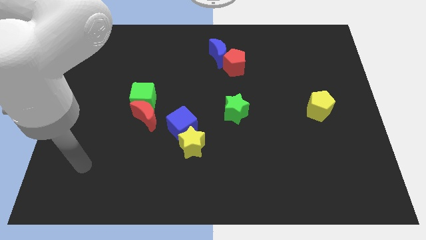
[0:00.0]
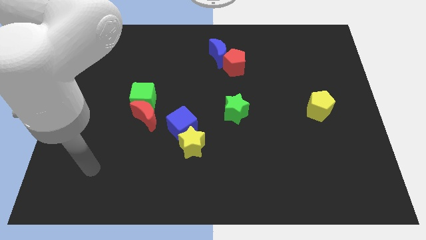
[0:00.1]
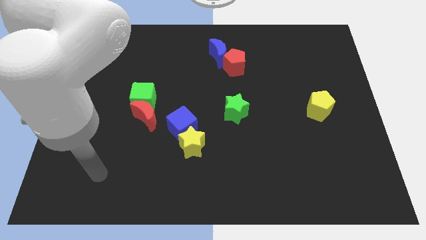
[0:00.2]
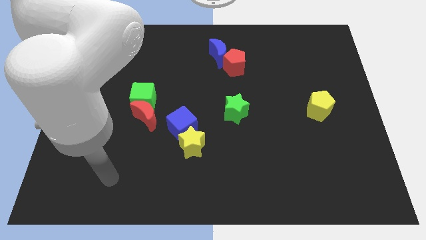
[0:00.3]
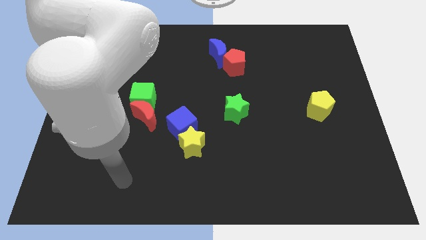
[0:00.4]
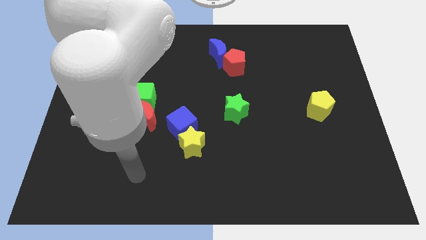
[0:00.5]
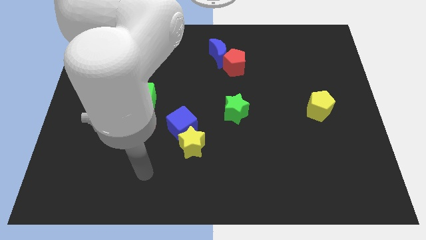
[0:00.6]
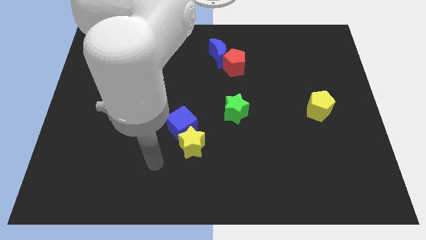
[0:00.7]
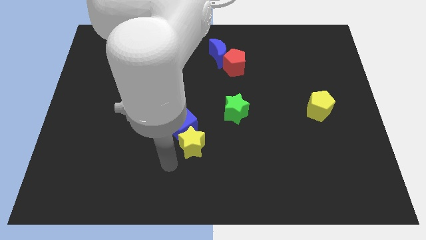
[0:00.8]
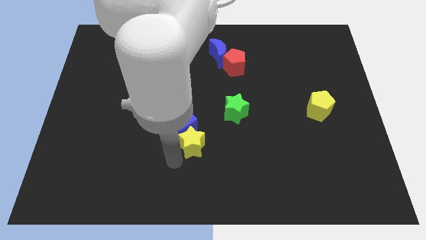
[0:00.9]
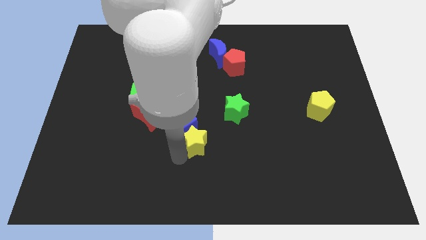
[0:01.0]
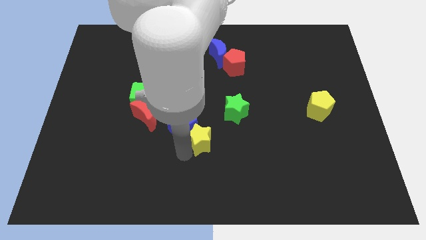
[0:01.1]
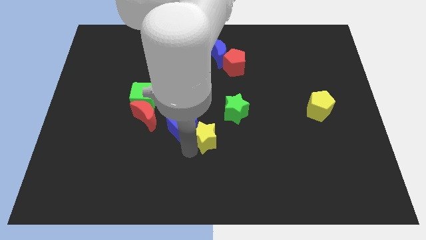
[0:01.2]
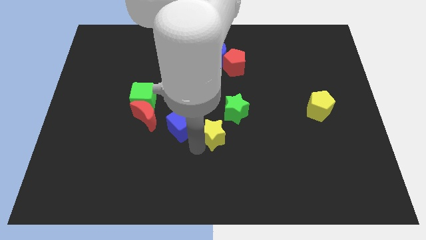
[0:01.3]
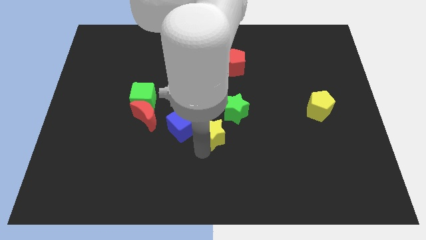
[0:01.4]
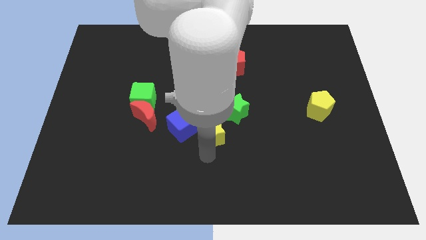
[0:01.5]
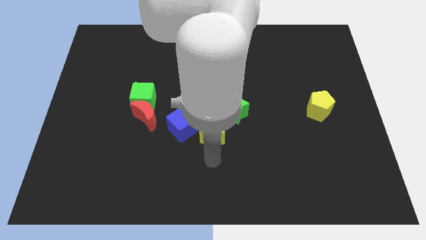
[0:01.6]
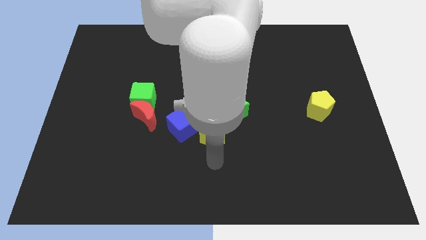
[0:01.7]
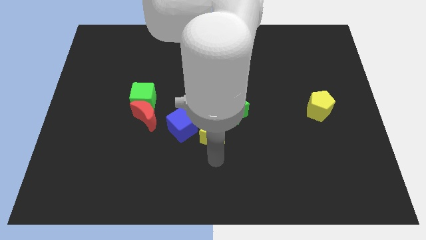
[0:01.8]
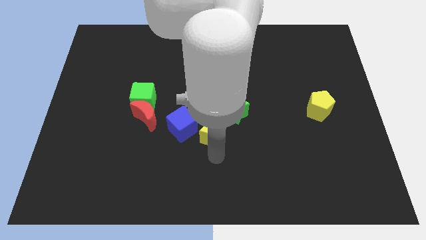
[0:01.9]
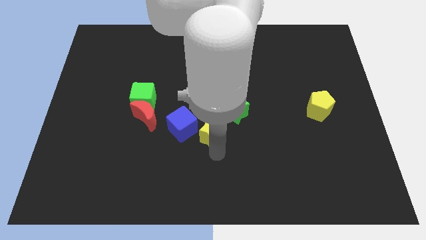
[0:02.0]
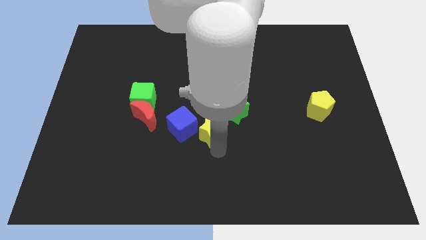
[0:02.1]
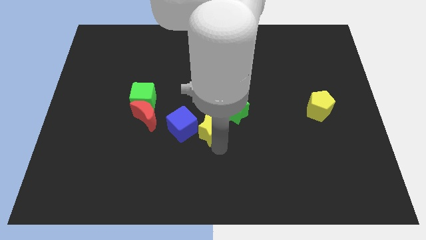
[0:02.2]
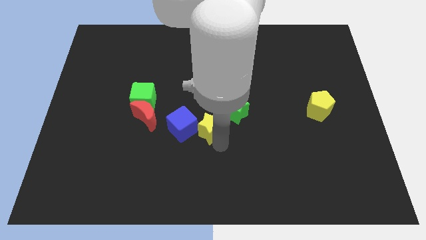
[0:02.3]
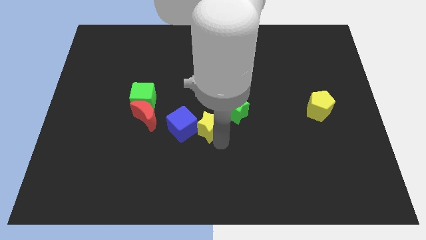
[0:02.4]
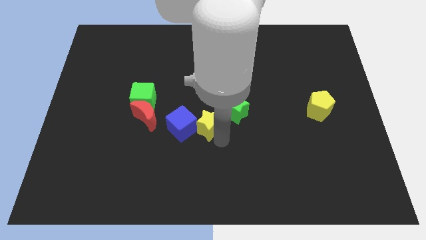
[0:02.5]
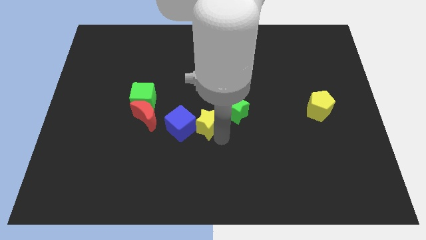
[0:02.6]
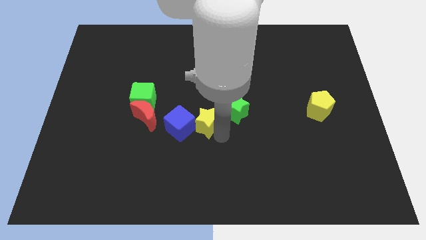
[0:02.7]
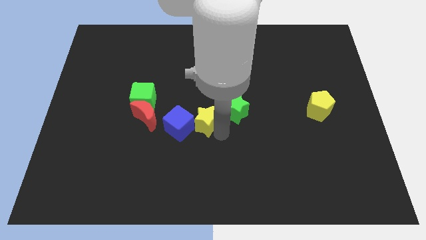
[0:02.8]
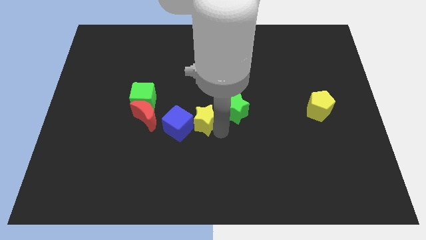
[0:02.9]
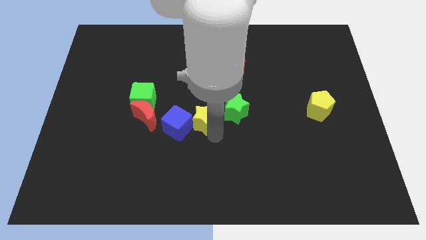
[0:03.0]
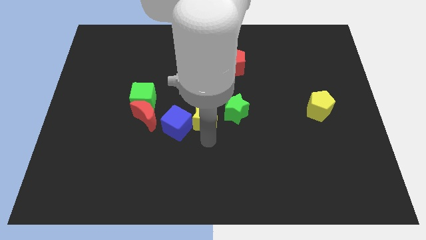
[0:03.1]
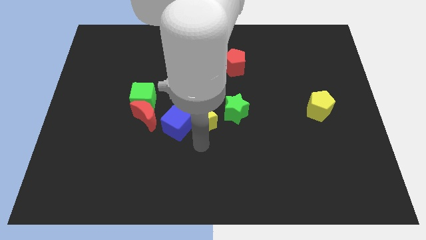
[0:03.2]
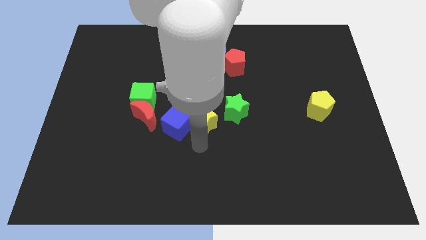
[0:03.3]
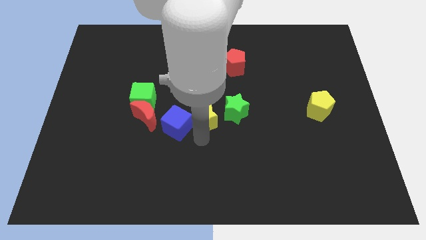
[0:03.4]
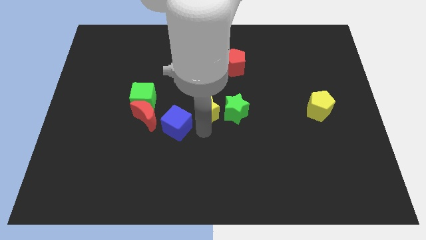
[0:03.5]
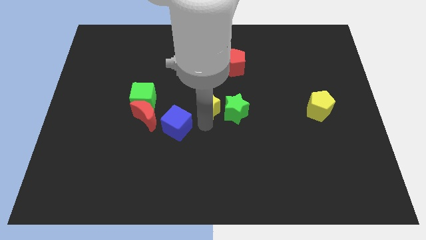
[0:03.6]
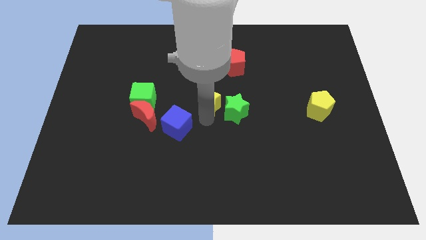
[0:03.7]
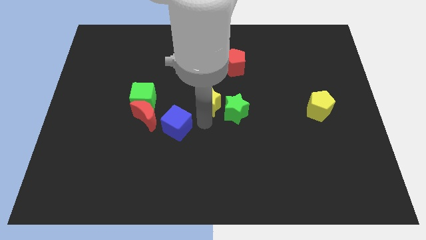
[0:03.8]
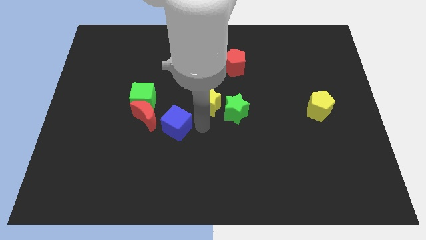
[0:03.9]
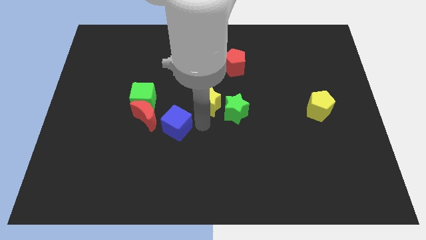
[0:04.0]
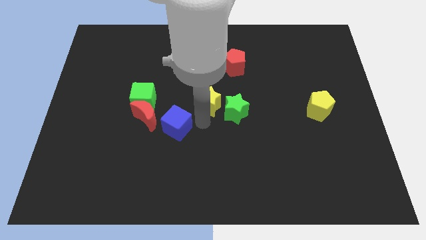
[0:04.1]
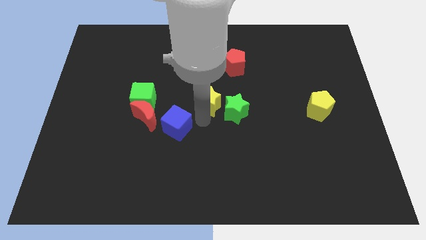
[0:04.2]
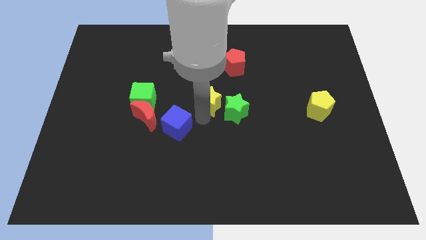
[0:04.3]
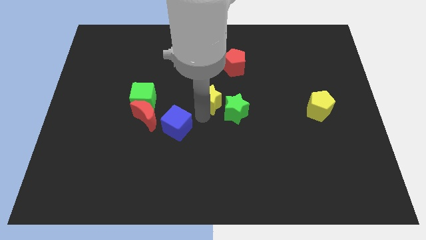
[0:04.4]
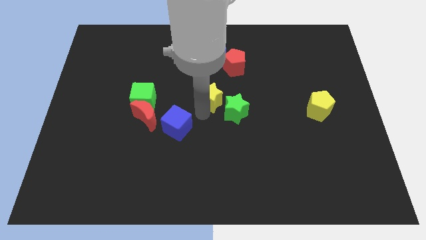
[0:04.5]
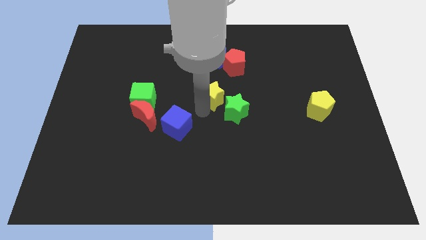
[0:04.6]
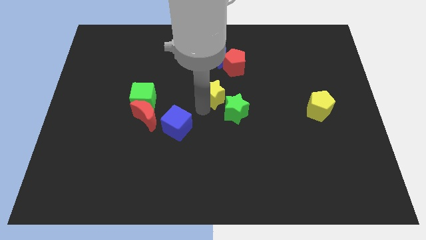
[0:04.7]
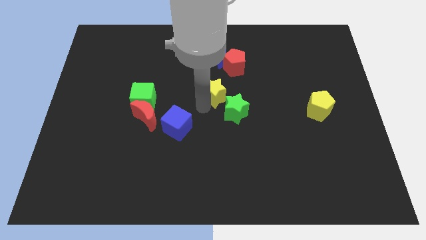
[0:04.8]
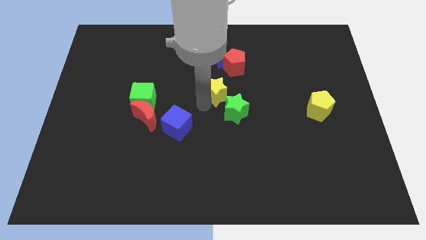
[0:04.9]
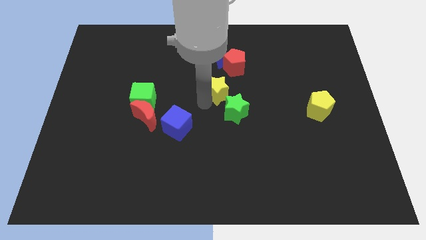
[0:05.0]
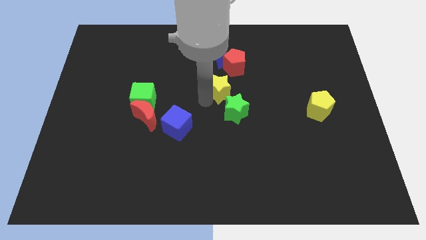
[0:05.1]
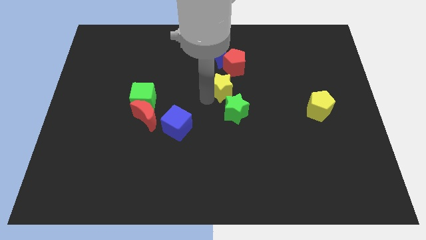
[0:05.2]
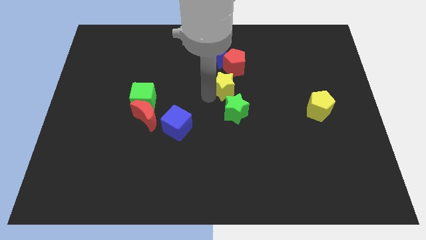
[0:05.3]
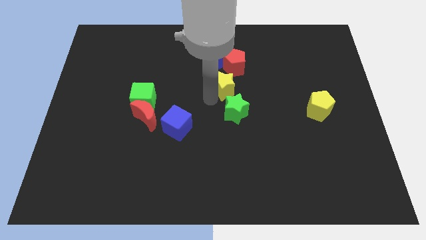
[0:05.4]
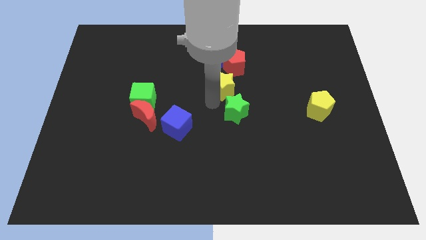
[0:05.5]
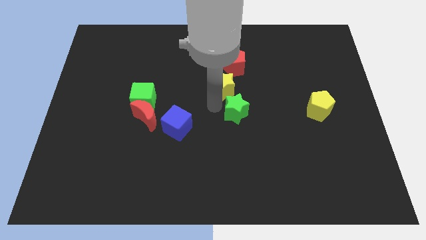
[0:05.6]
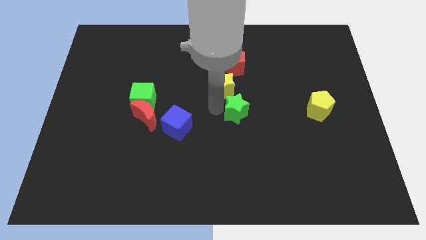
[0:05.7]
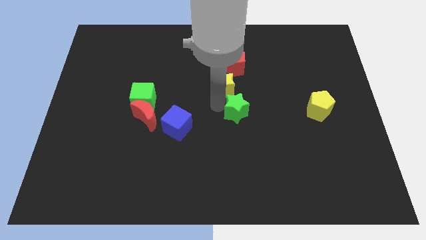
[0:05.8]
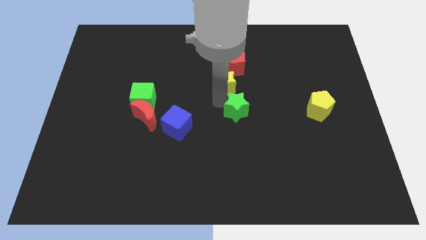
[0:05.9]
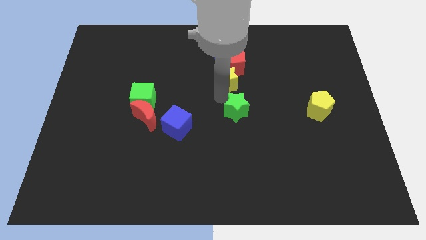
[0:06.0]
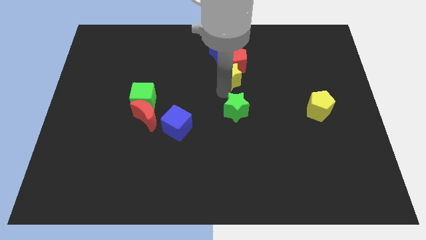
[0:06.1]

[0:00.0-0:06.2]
push the yellow star to the red pentagon
